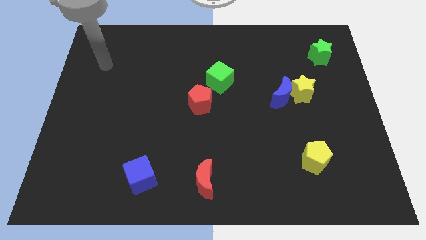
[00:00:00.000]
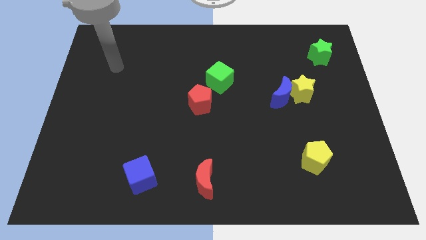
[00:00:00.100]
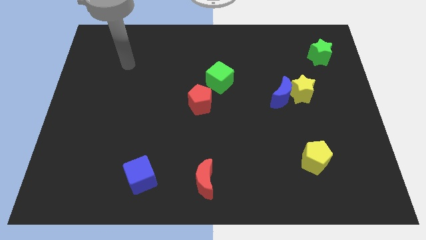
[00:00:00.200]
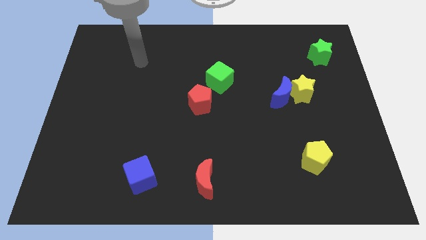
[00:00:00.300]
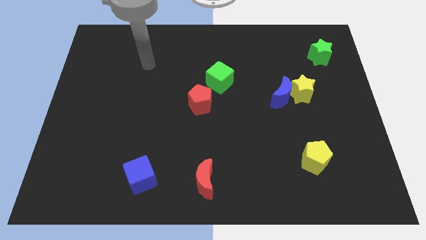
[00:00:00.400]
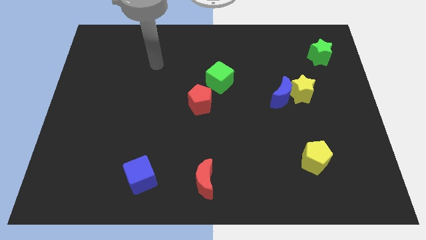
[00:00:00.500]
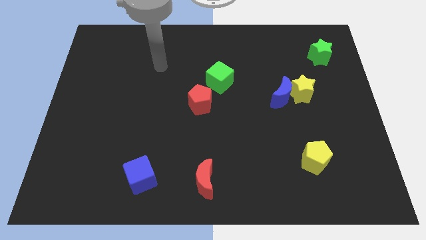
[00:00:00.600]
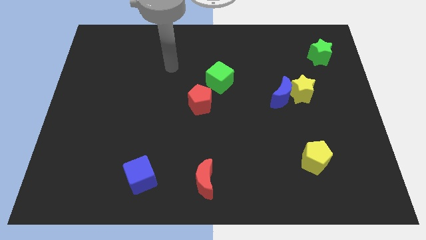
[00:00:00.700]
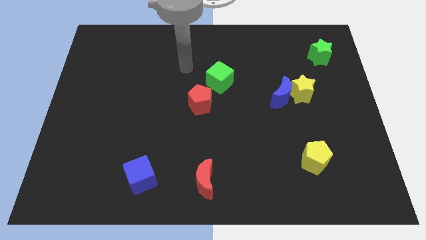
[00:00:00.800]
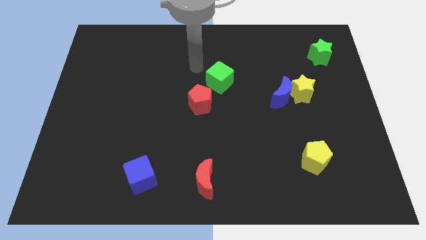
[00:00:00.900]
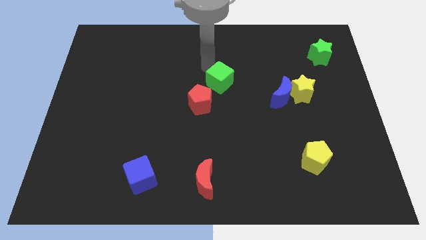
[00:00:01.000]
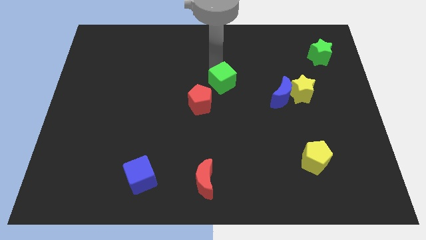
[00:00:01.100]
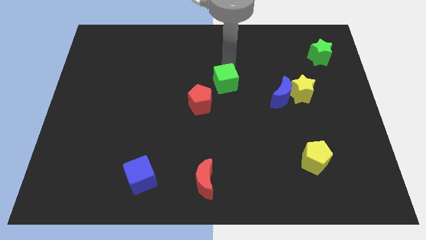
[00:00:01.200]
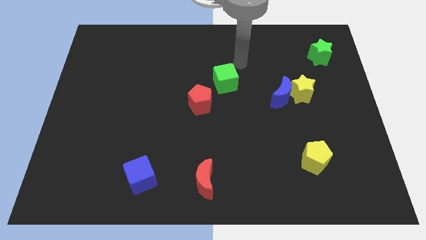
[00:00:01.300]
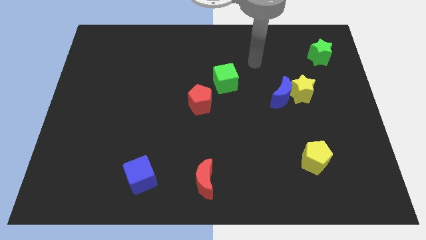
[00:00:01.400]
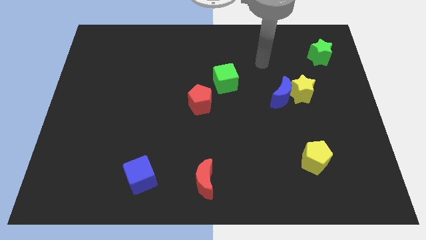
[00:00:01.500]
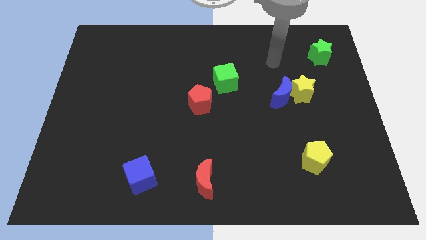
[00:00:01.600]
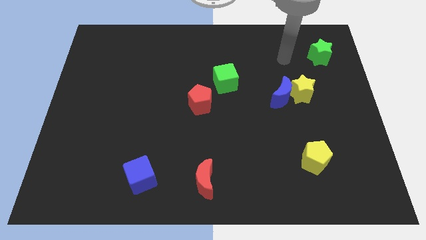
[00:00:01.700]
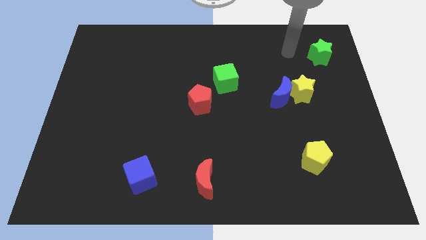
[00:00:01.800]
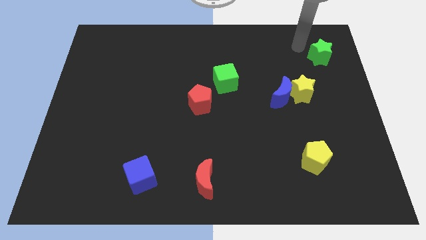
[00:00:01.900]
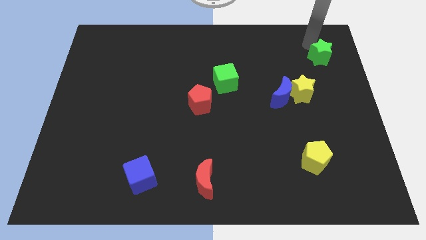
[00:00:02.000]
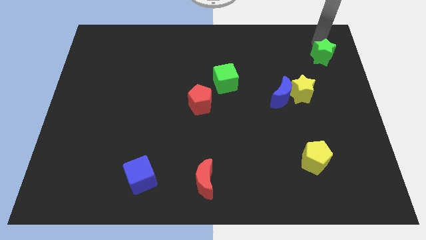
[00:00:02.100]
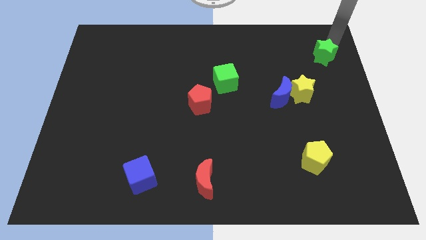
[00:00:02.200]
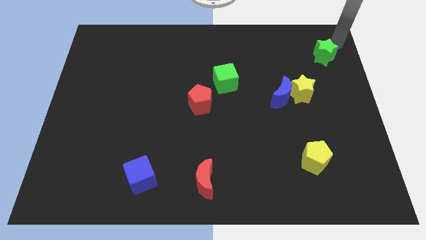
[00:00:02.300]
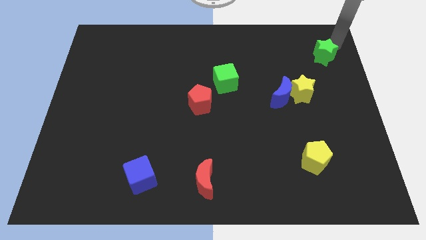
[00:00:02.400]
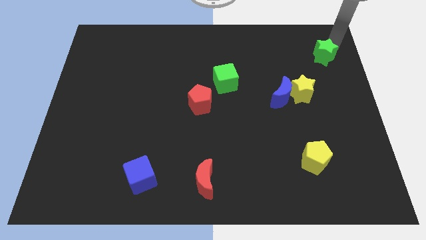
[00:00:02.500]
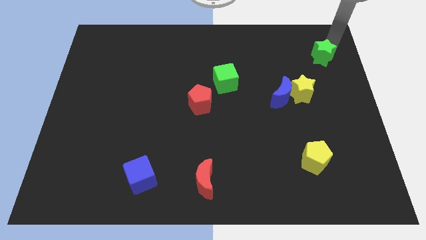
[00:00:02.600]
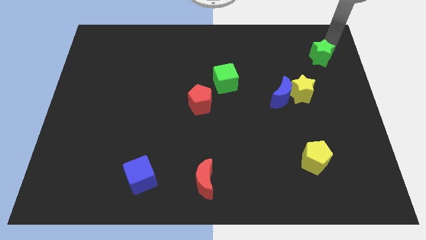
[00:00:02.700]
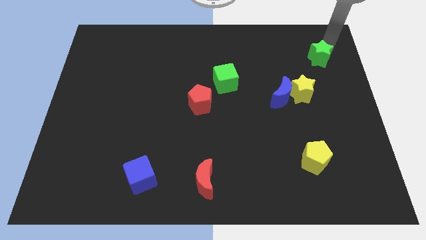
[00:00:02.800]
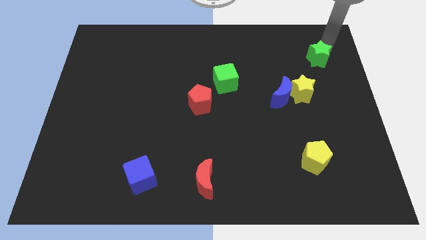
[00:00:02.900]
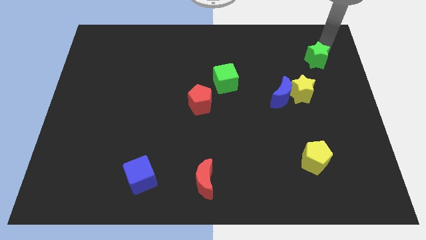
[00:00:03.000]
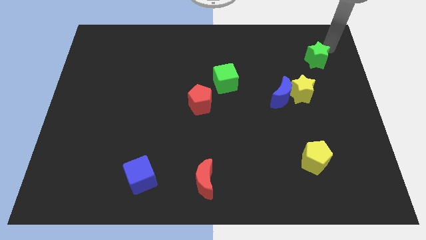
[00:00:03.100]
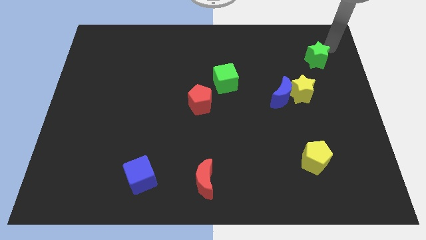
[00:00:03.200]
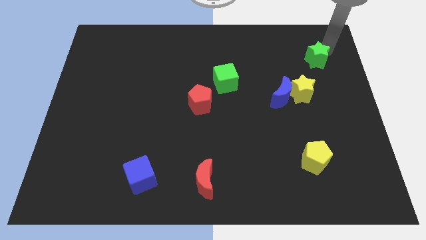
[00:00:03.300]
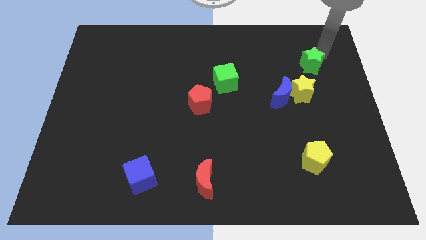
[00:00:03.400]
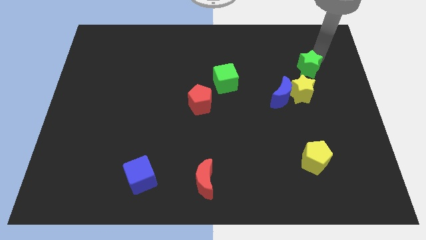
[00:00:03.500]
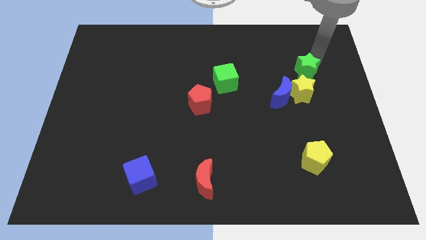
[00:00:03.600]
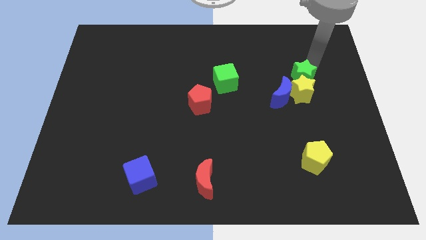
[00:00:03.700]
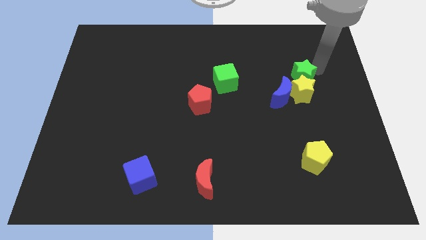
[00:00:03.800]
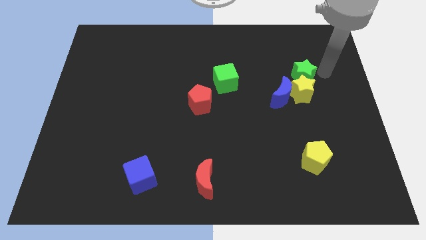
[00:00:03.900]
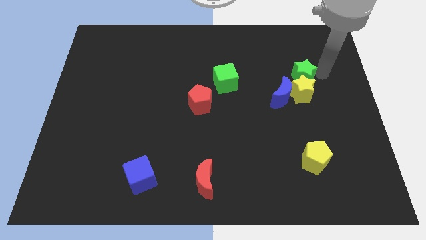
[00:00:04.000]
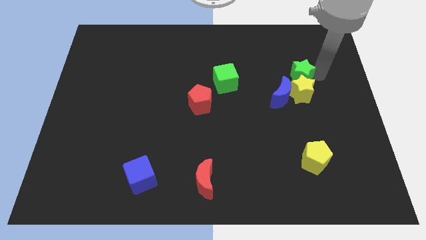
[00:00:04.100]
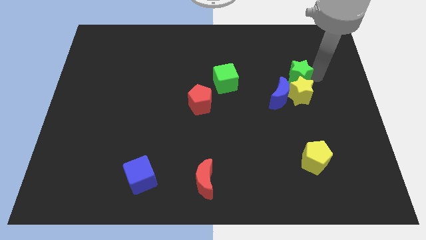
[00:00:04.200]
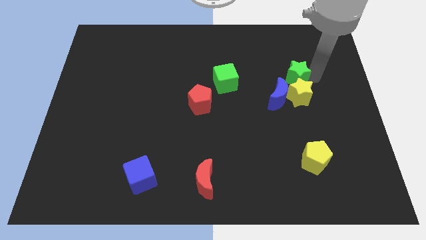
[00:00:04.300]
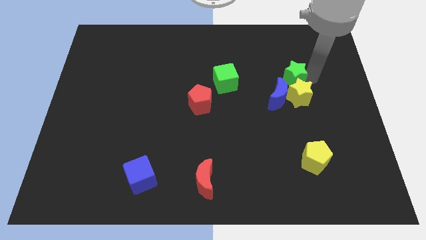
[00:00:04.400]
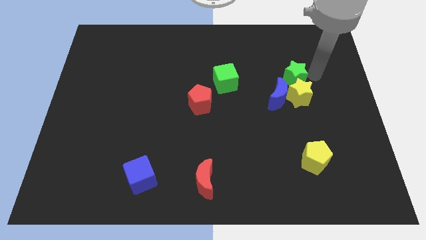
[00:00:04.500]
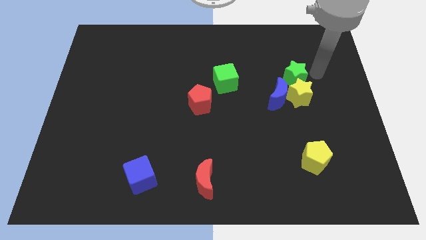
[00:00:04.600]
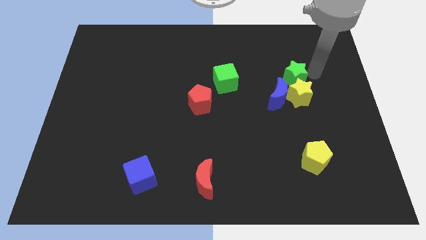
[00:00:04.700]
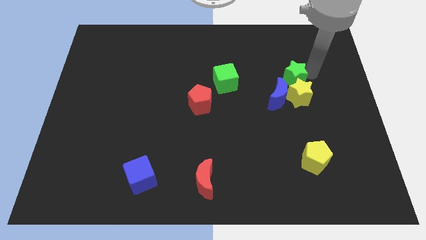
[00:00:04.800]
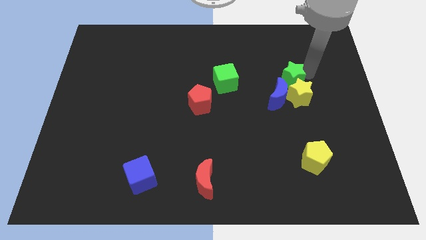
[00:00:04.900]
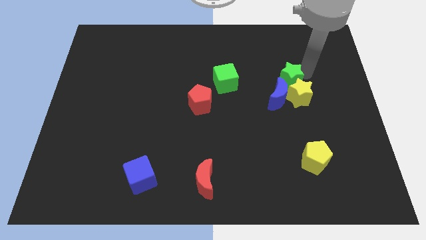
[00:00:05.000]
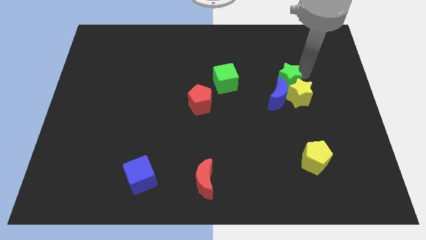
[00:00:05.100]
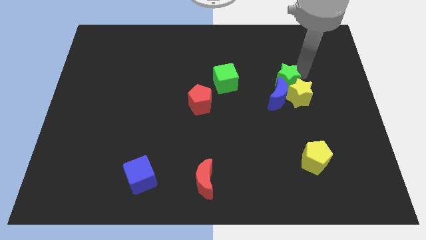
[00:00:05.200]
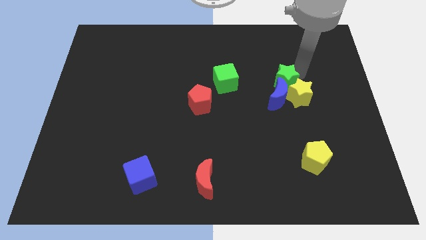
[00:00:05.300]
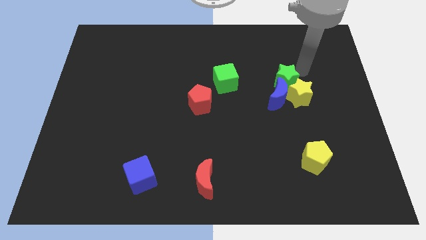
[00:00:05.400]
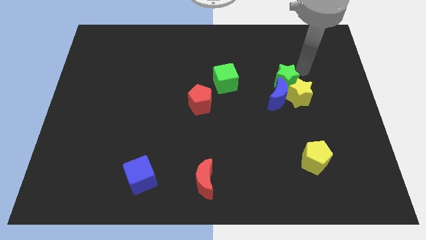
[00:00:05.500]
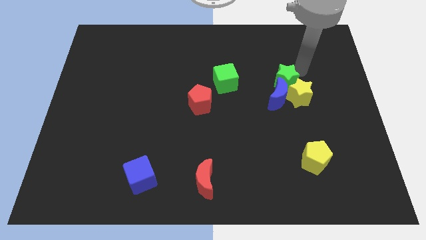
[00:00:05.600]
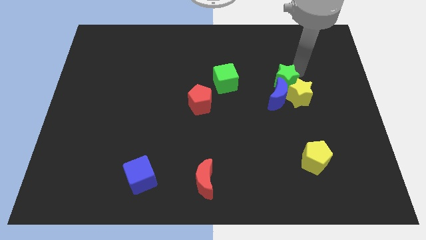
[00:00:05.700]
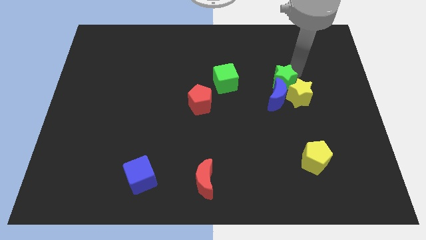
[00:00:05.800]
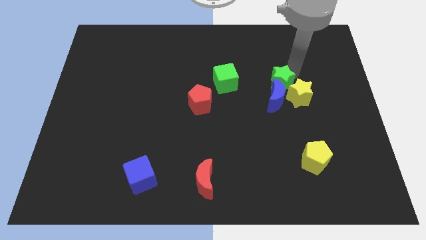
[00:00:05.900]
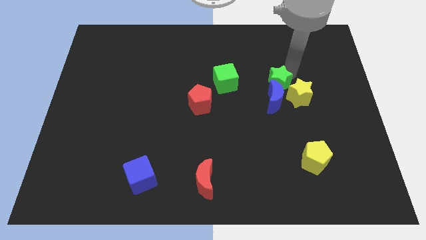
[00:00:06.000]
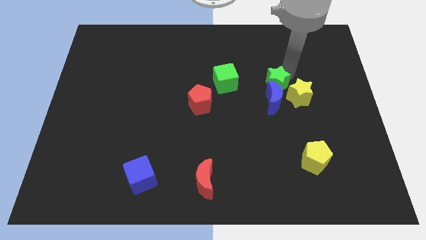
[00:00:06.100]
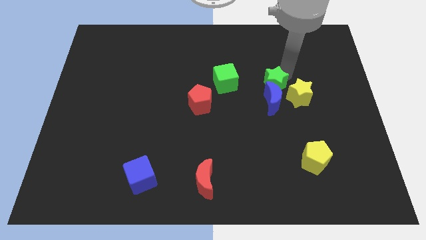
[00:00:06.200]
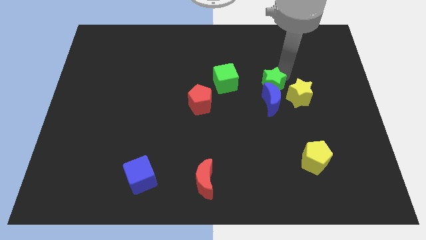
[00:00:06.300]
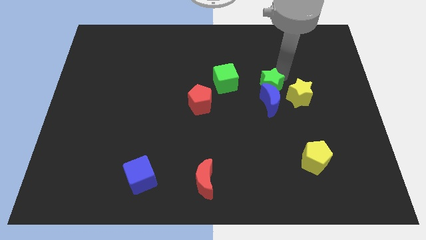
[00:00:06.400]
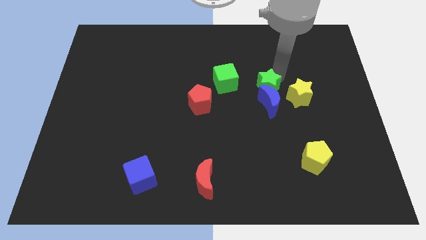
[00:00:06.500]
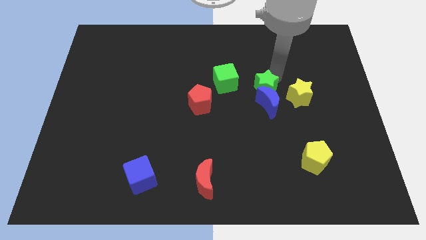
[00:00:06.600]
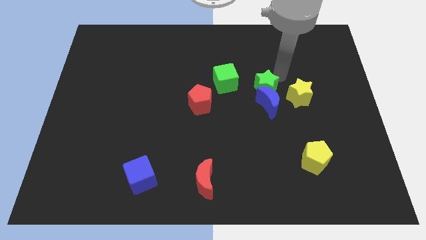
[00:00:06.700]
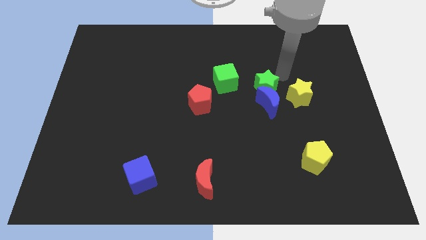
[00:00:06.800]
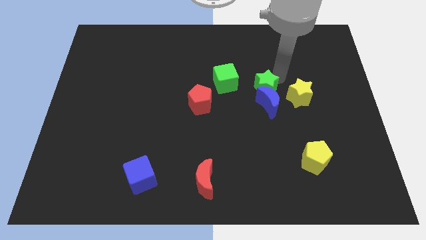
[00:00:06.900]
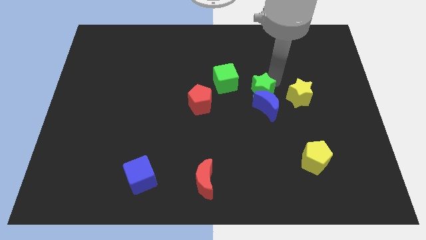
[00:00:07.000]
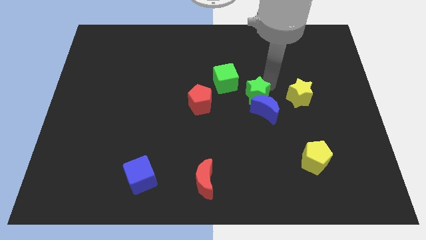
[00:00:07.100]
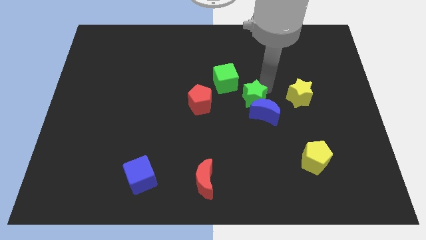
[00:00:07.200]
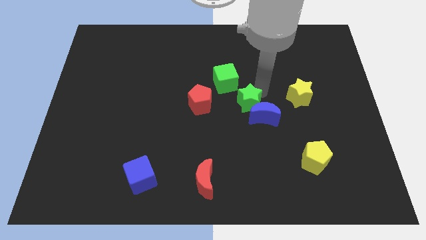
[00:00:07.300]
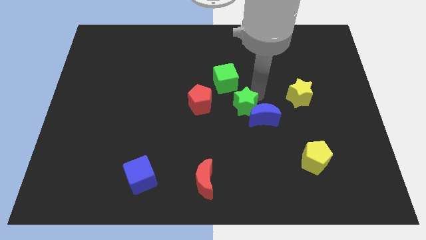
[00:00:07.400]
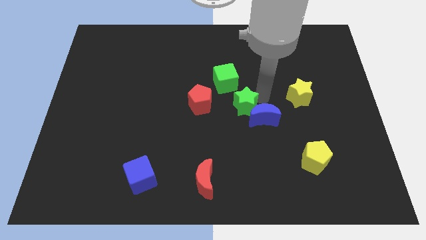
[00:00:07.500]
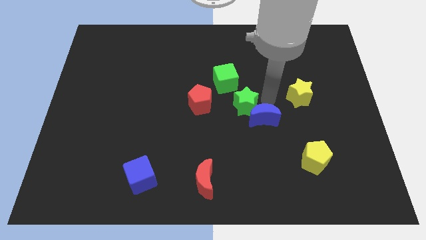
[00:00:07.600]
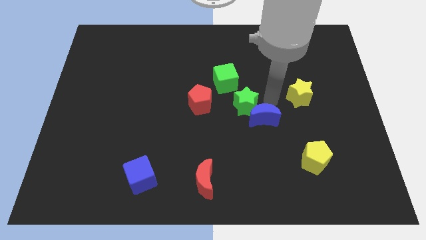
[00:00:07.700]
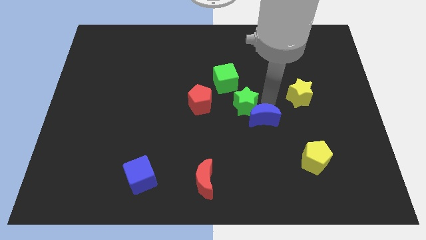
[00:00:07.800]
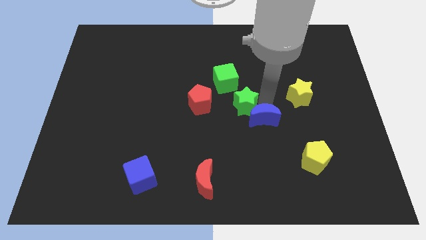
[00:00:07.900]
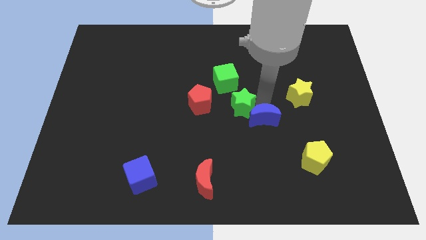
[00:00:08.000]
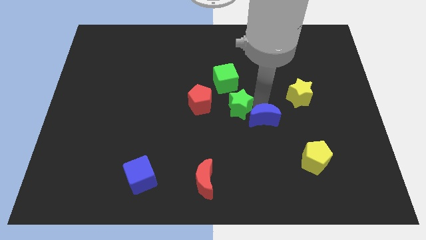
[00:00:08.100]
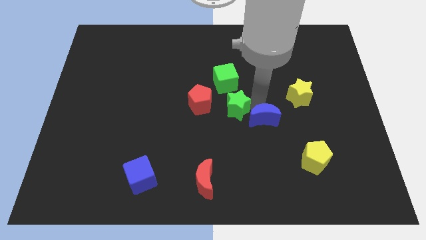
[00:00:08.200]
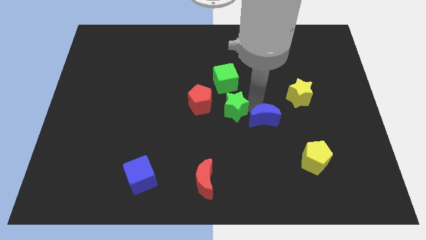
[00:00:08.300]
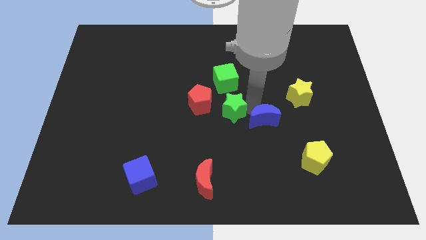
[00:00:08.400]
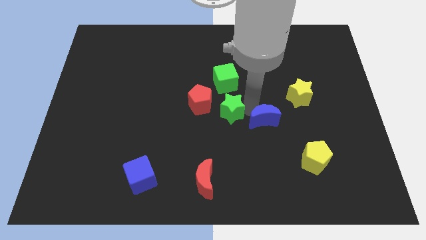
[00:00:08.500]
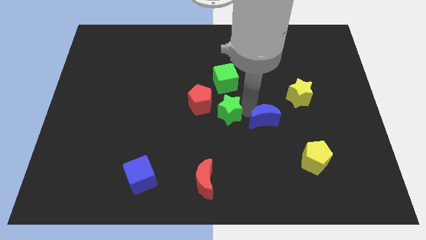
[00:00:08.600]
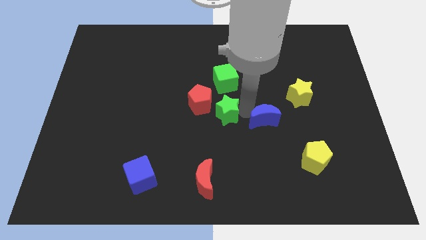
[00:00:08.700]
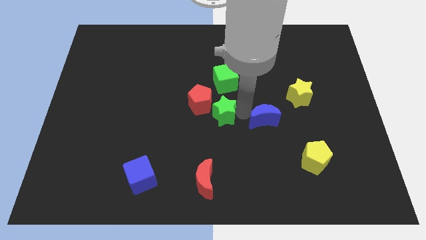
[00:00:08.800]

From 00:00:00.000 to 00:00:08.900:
move the green star next to the red pentagon
